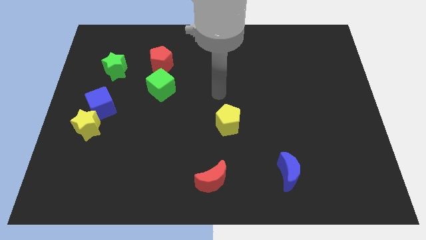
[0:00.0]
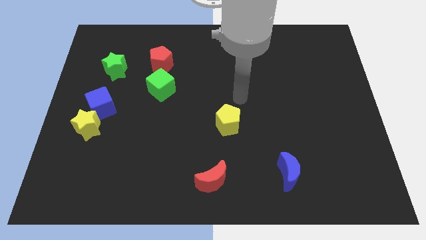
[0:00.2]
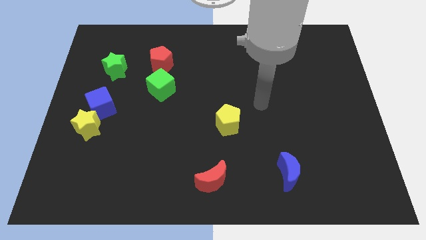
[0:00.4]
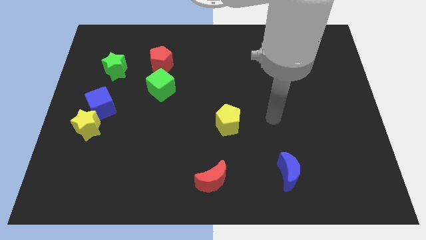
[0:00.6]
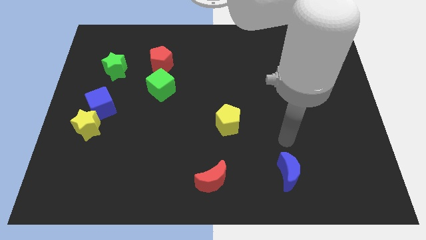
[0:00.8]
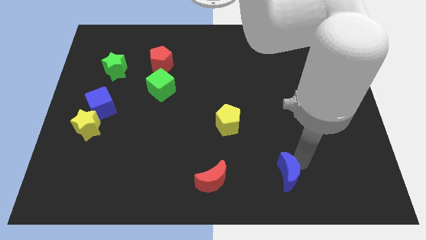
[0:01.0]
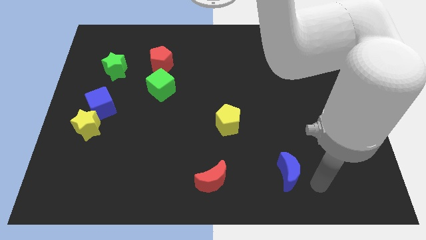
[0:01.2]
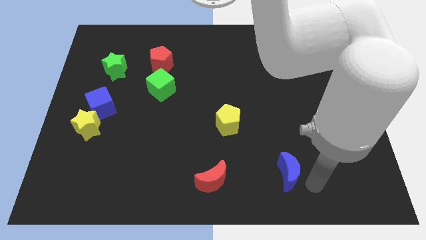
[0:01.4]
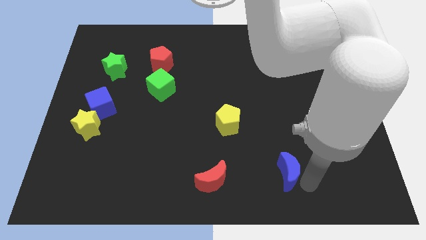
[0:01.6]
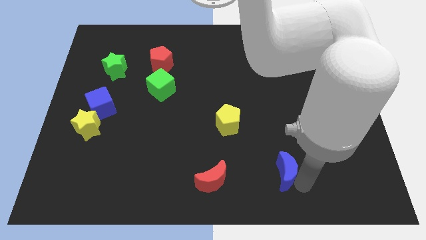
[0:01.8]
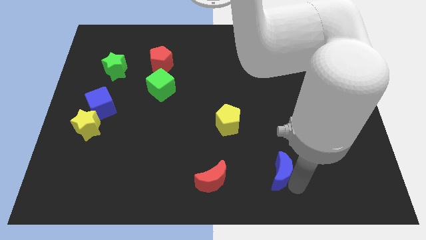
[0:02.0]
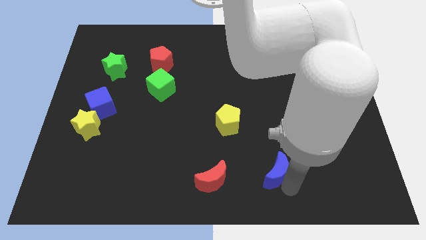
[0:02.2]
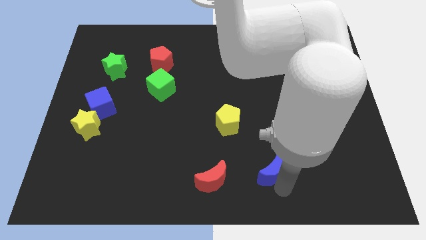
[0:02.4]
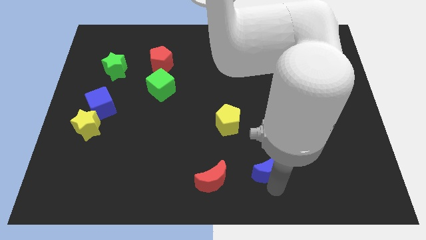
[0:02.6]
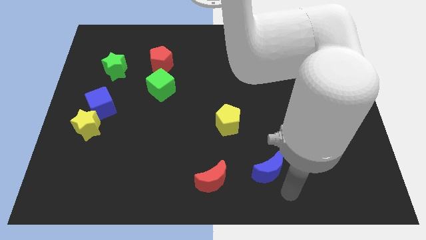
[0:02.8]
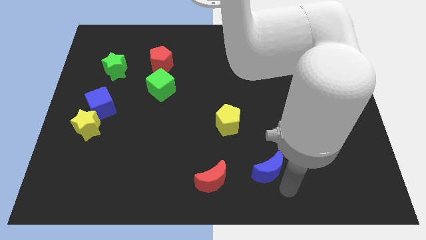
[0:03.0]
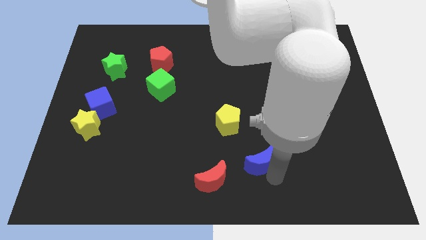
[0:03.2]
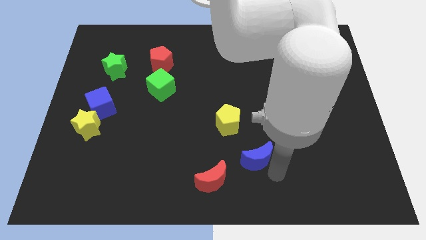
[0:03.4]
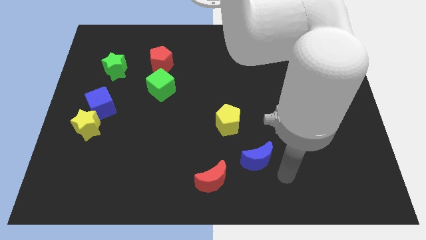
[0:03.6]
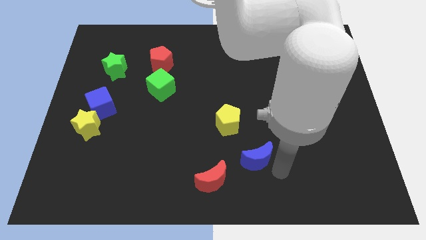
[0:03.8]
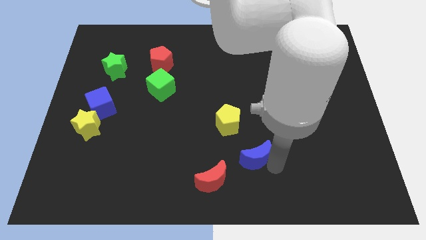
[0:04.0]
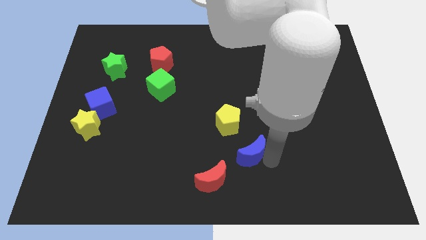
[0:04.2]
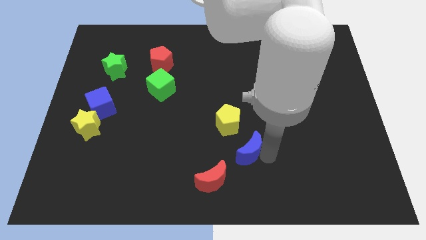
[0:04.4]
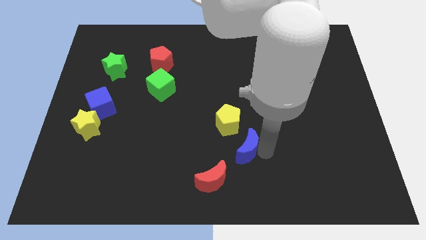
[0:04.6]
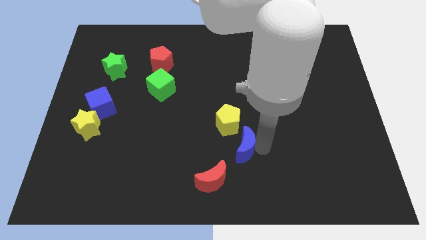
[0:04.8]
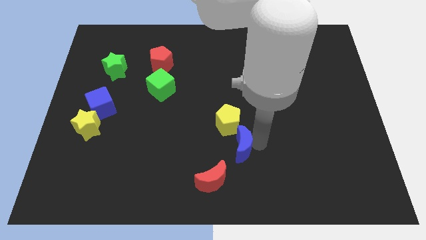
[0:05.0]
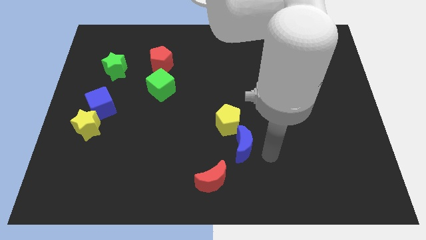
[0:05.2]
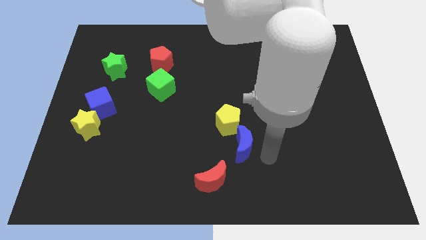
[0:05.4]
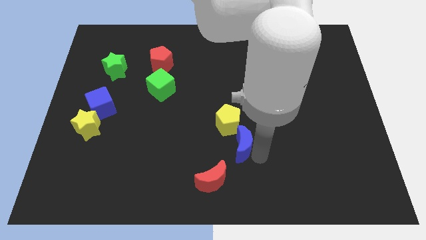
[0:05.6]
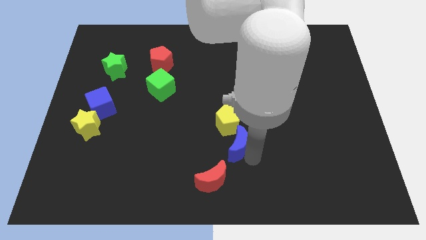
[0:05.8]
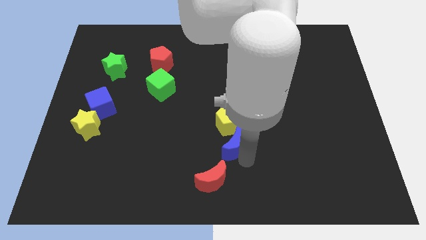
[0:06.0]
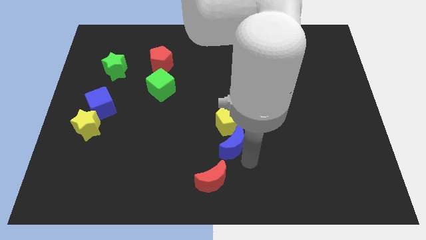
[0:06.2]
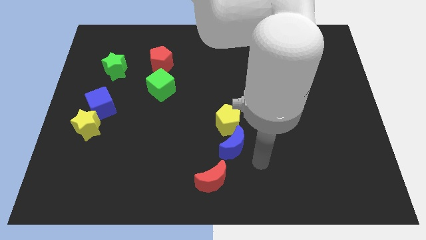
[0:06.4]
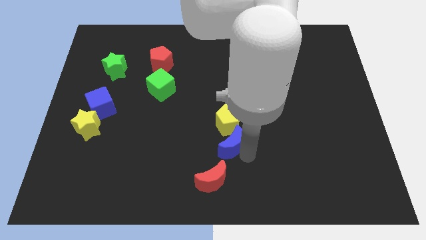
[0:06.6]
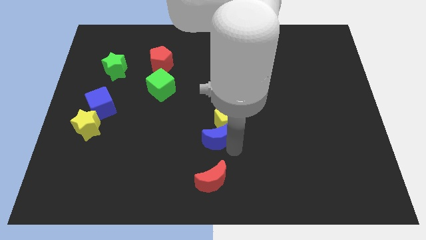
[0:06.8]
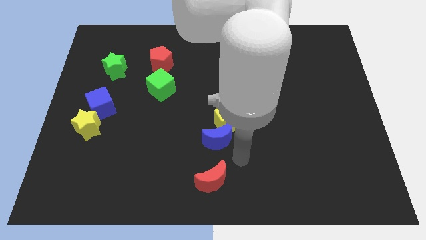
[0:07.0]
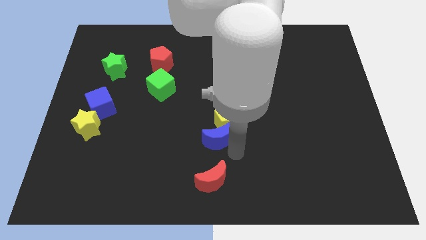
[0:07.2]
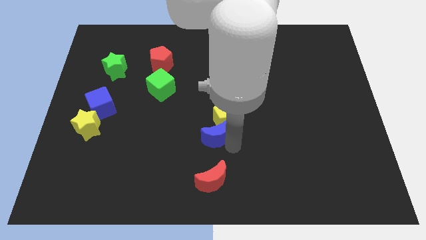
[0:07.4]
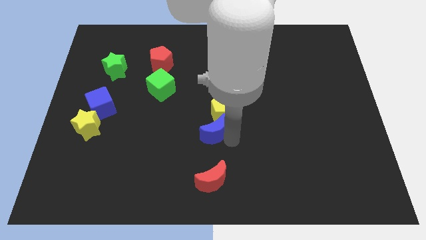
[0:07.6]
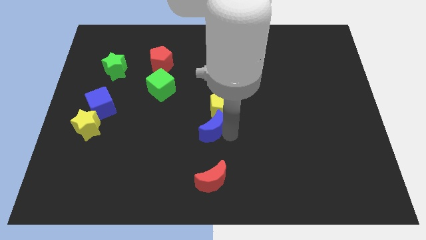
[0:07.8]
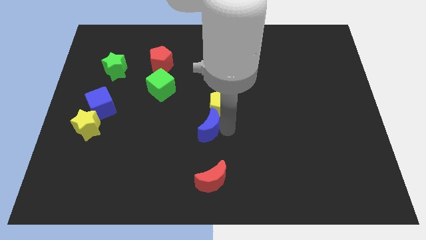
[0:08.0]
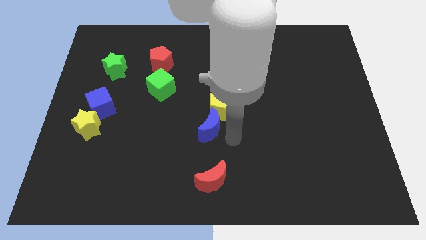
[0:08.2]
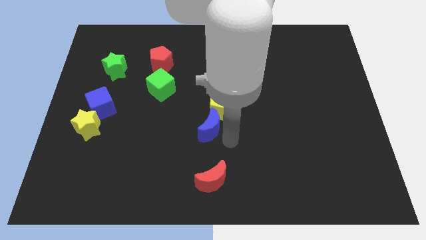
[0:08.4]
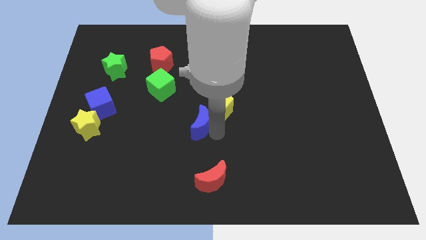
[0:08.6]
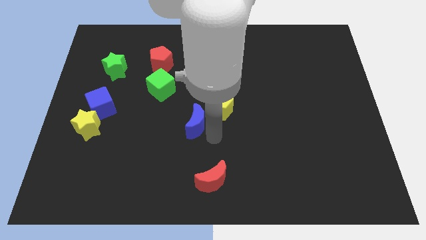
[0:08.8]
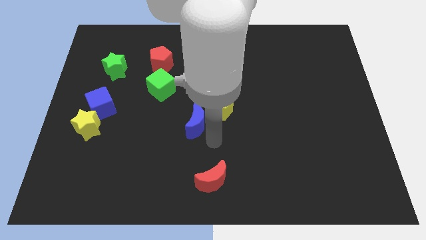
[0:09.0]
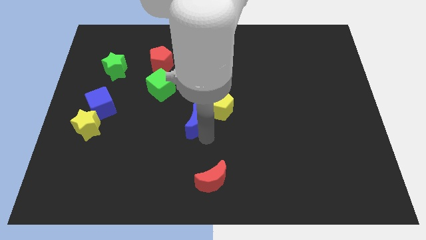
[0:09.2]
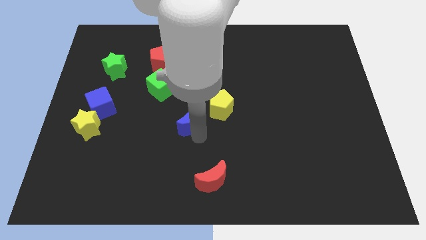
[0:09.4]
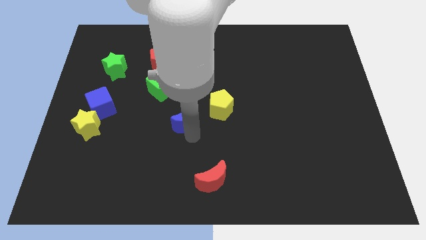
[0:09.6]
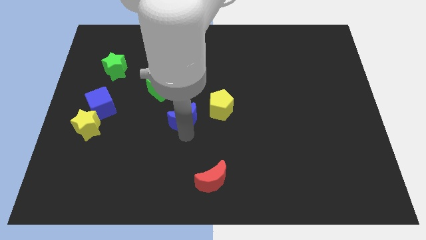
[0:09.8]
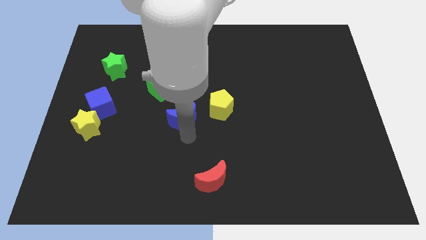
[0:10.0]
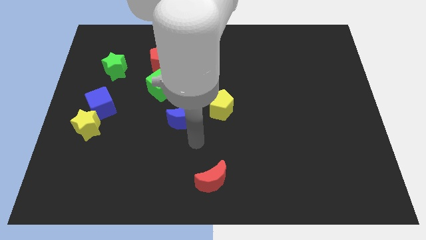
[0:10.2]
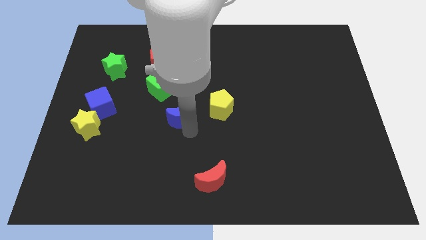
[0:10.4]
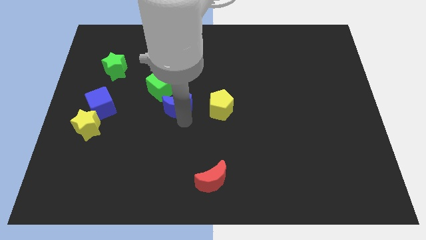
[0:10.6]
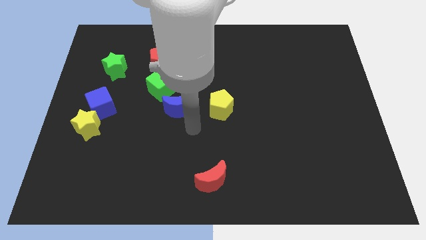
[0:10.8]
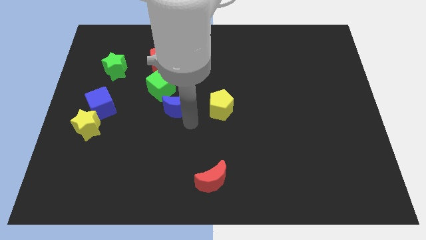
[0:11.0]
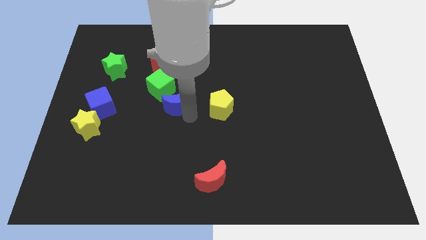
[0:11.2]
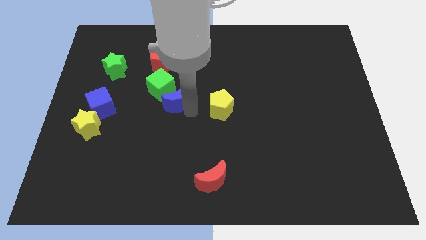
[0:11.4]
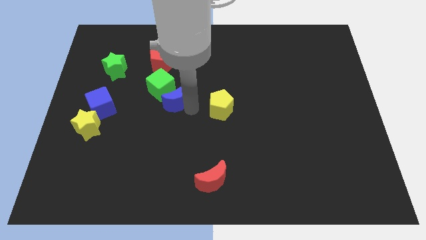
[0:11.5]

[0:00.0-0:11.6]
slide the blue moon next to the green cube

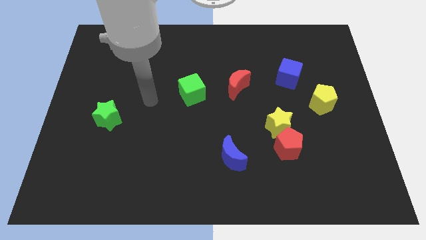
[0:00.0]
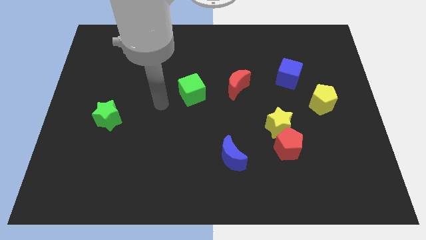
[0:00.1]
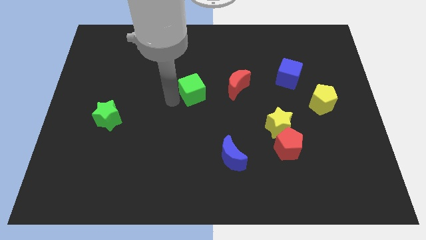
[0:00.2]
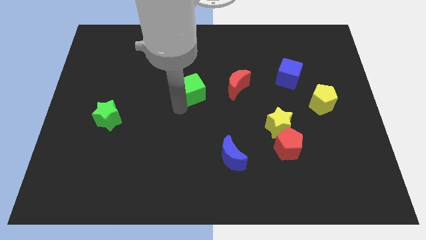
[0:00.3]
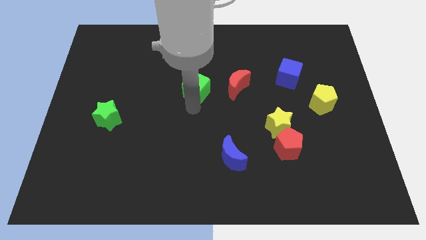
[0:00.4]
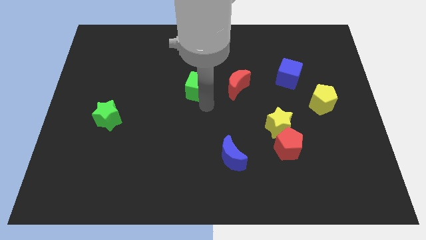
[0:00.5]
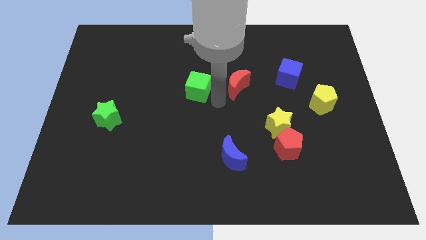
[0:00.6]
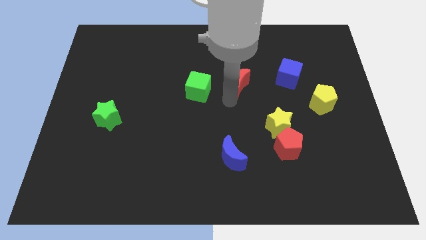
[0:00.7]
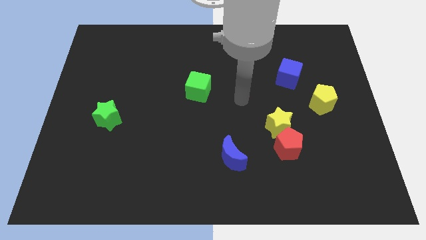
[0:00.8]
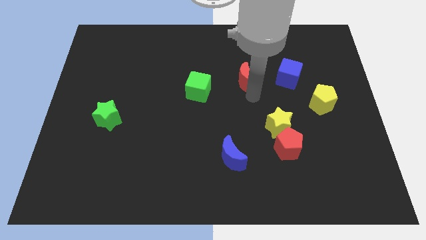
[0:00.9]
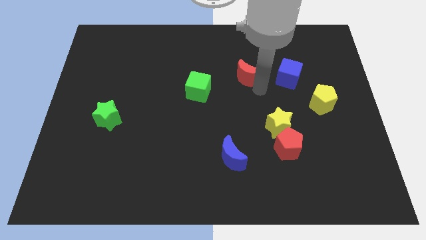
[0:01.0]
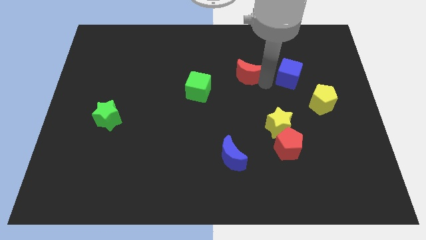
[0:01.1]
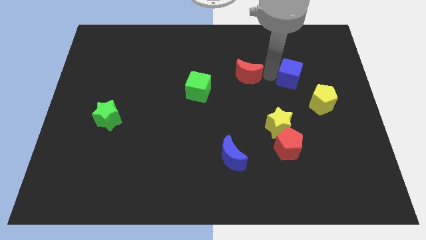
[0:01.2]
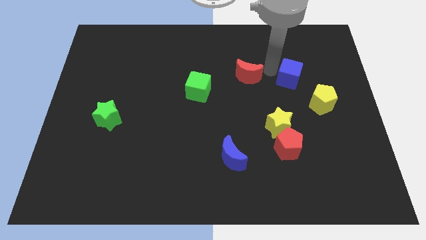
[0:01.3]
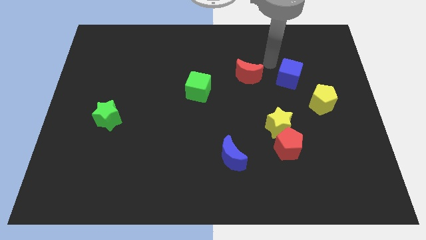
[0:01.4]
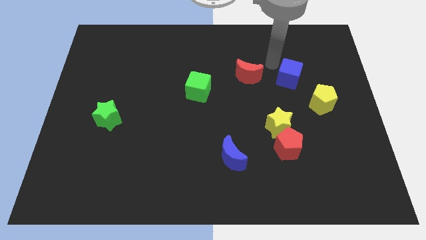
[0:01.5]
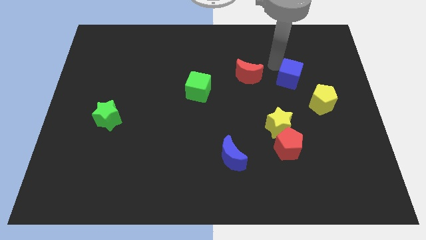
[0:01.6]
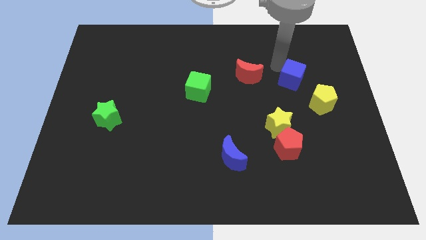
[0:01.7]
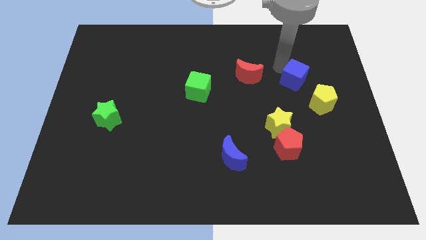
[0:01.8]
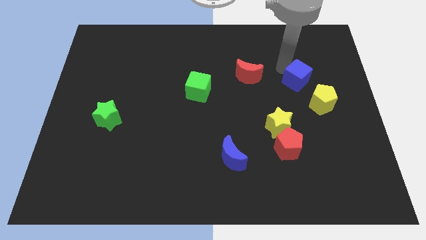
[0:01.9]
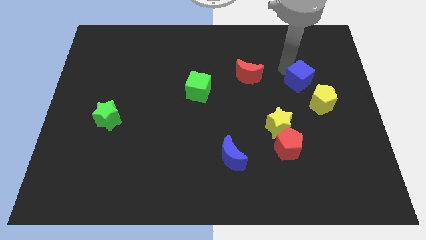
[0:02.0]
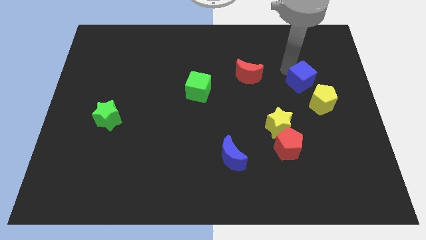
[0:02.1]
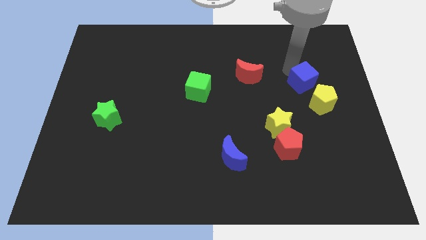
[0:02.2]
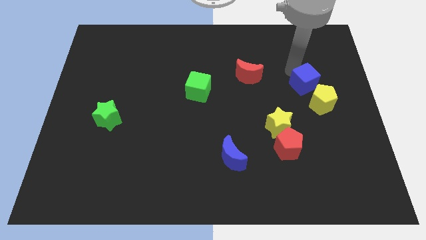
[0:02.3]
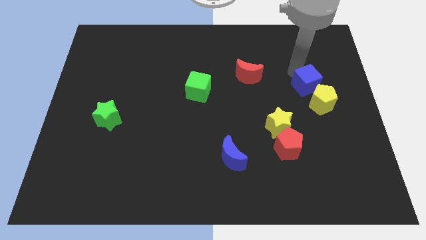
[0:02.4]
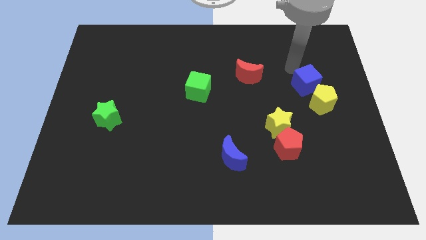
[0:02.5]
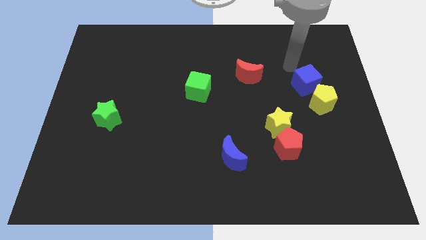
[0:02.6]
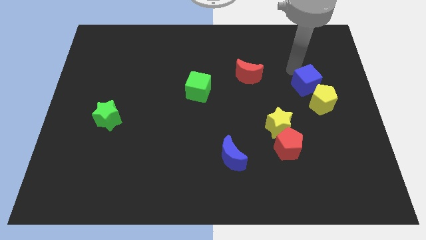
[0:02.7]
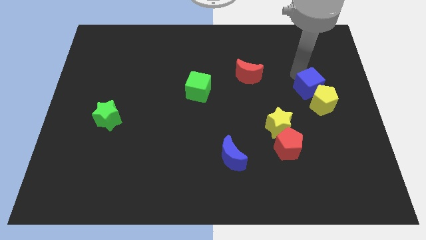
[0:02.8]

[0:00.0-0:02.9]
put the blue cube towards the yellow pentagon
